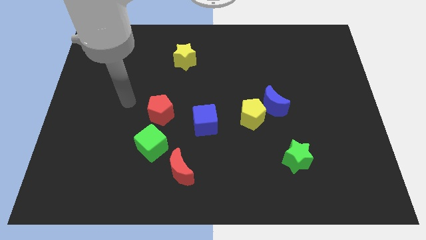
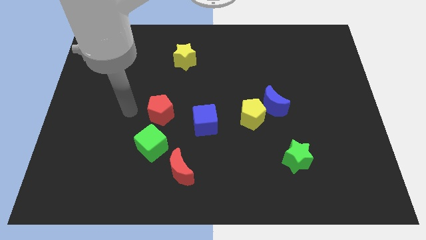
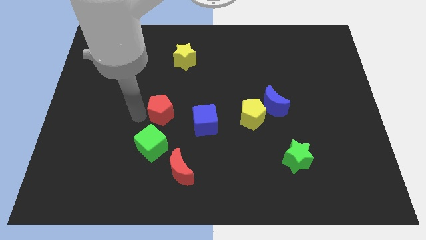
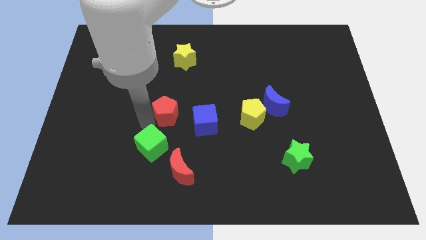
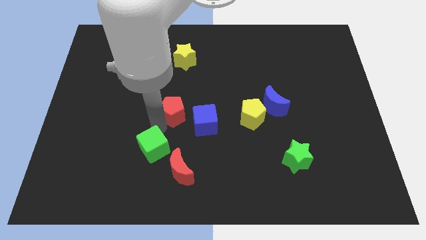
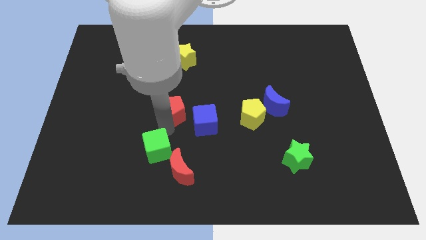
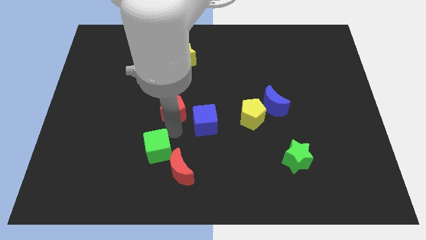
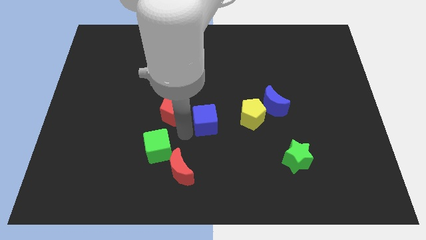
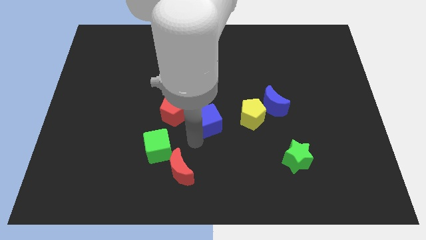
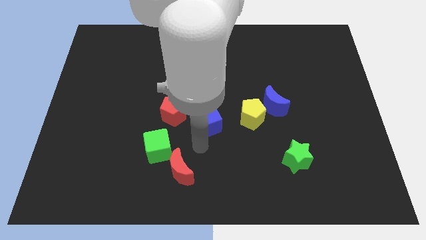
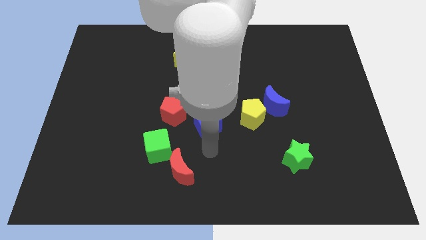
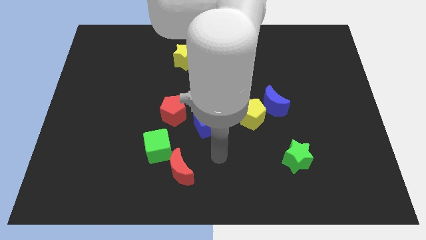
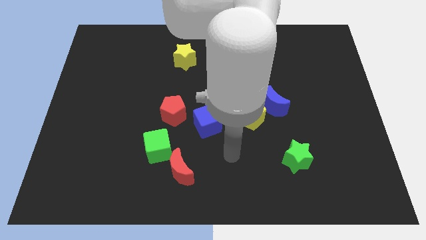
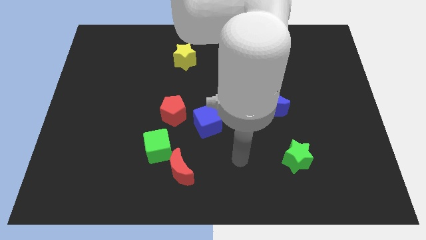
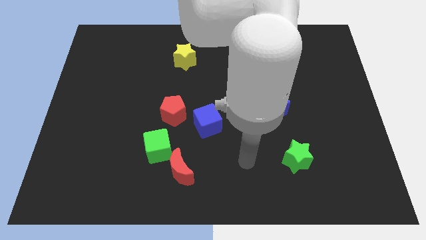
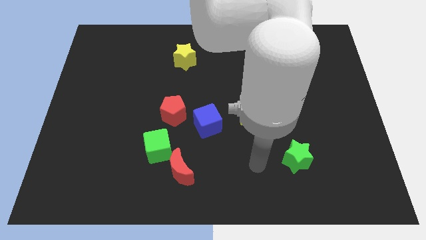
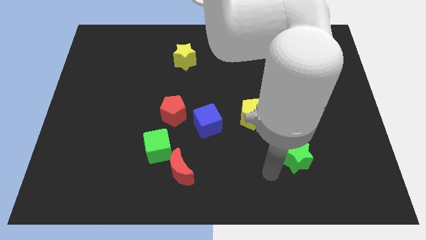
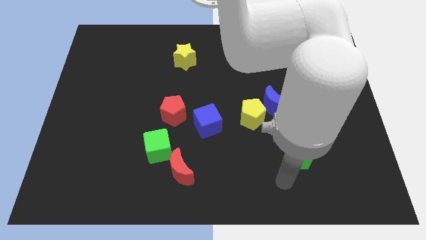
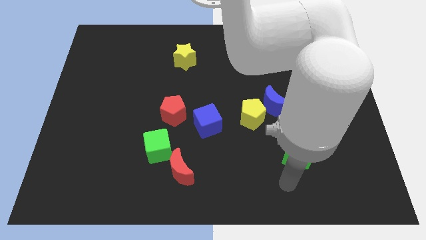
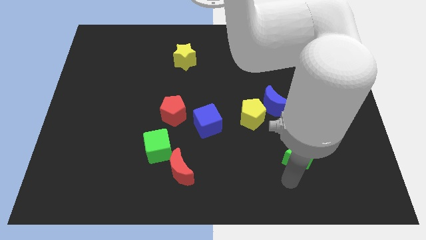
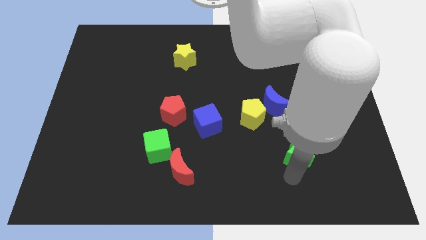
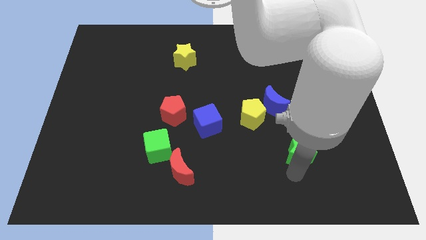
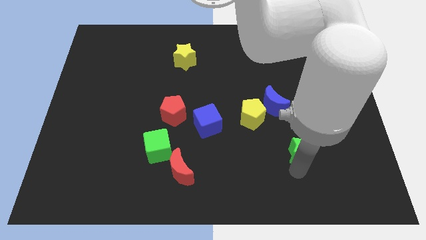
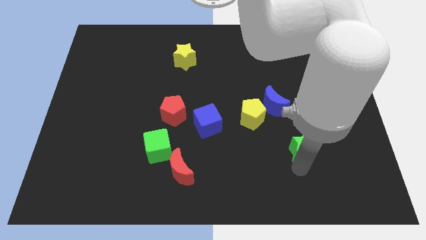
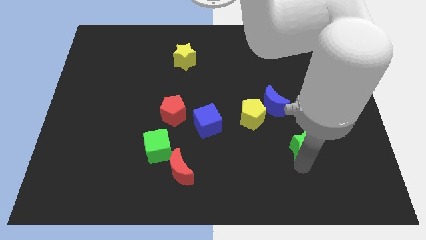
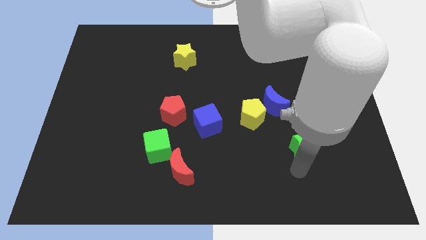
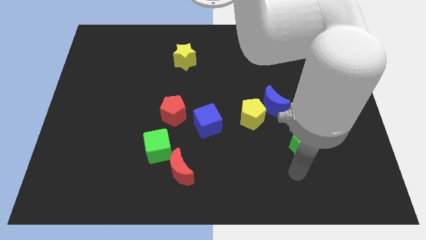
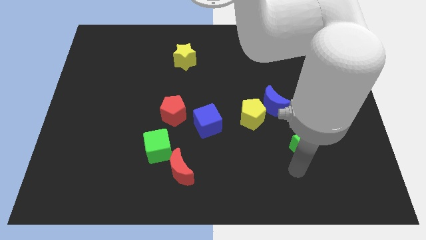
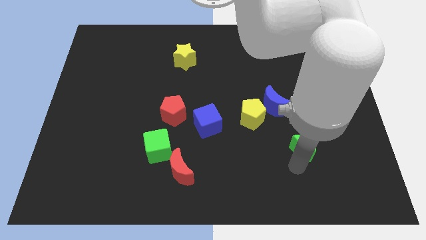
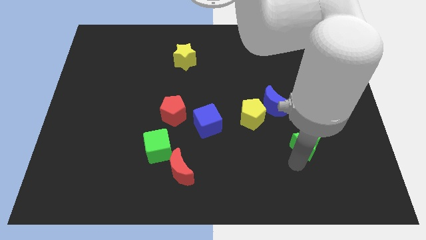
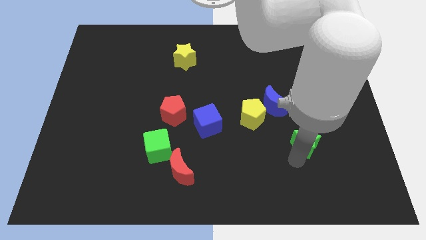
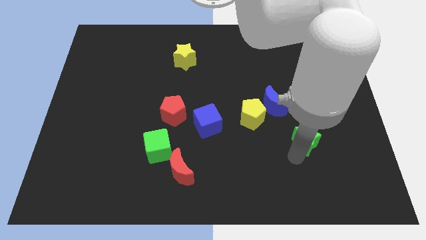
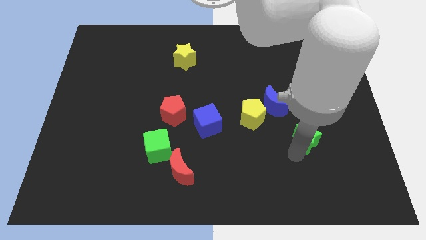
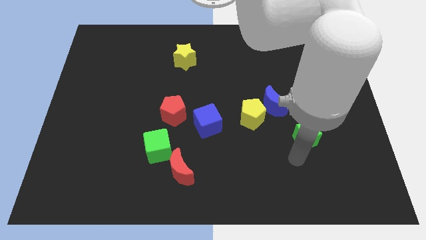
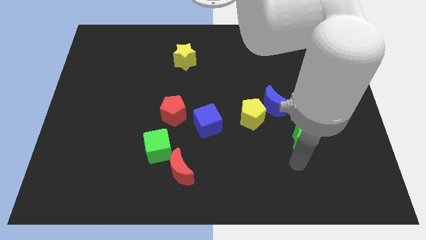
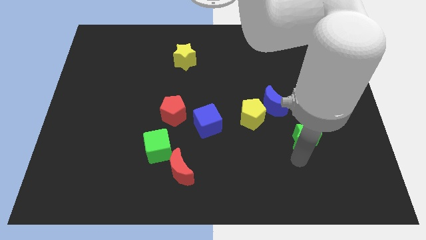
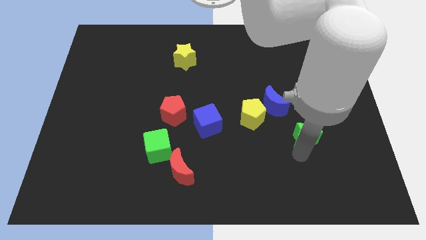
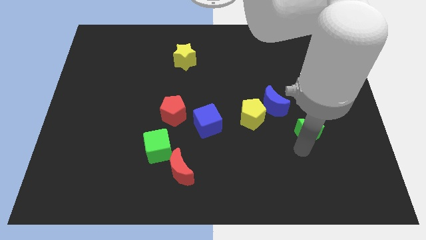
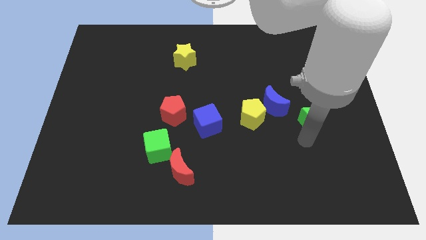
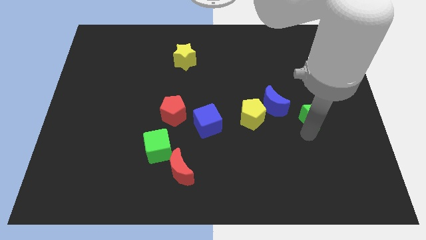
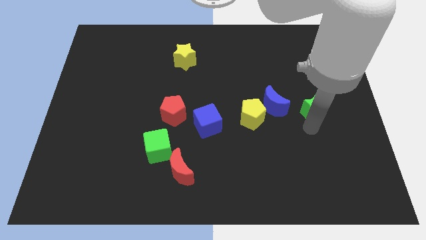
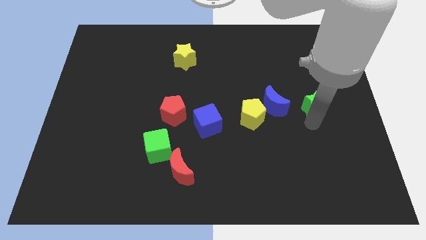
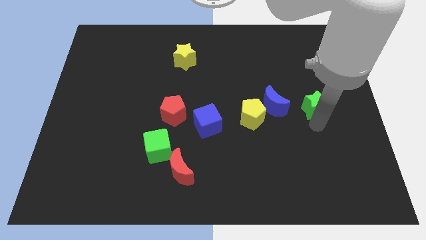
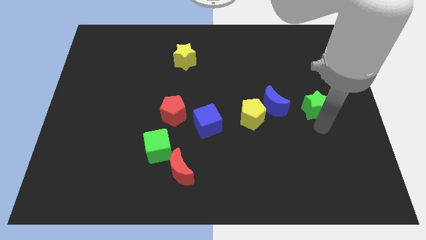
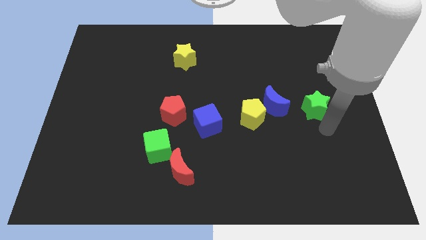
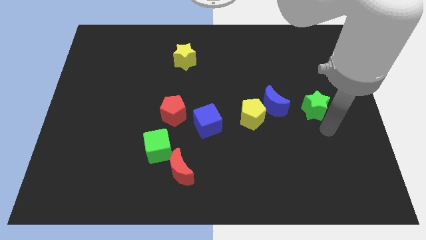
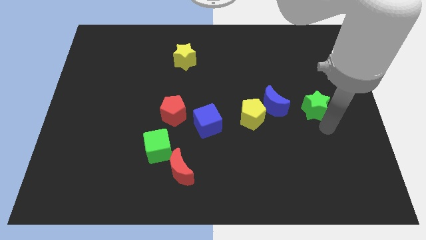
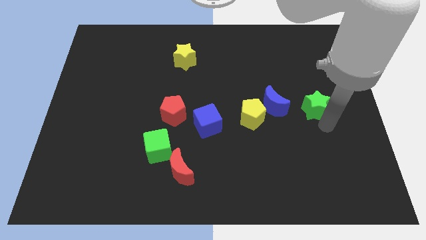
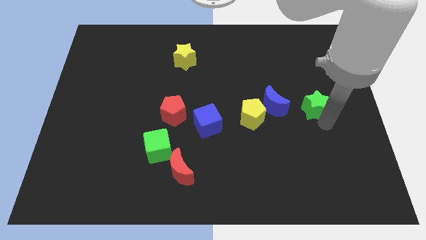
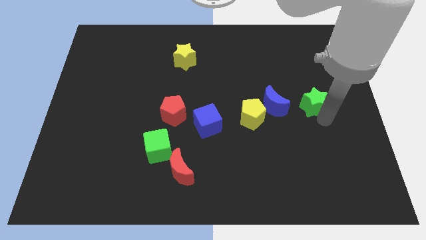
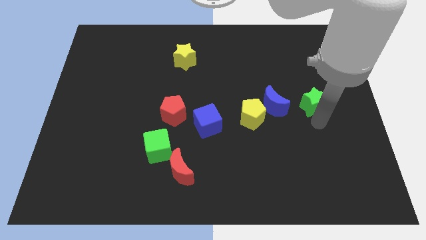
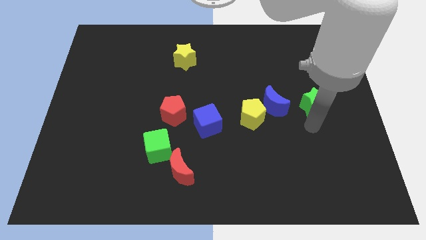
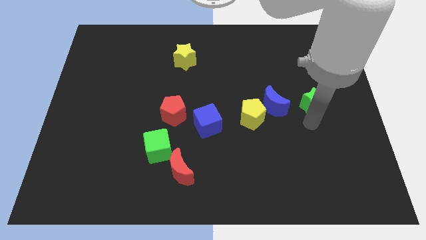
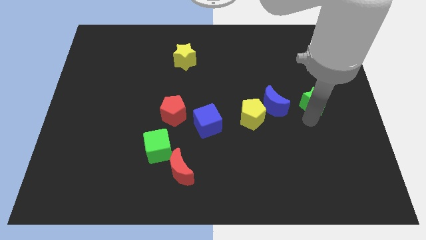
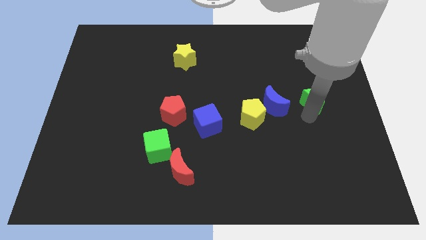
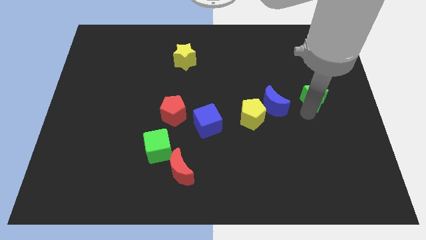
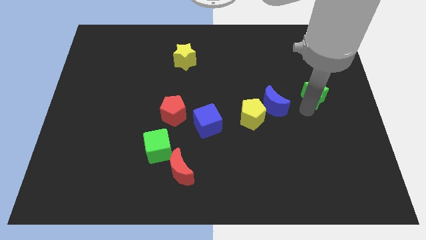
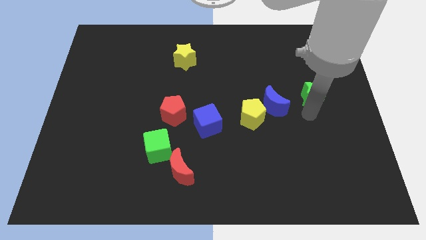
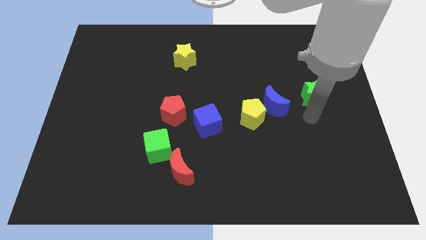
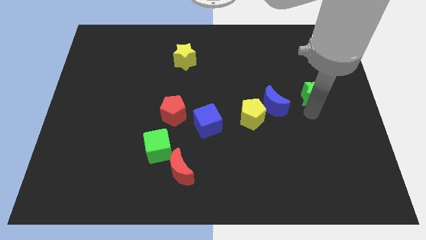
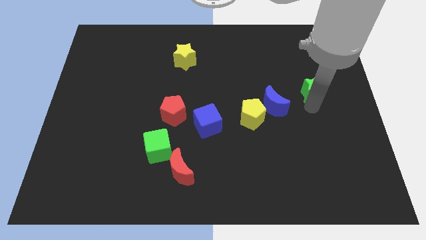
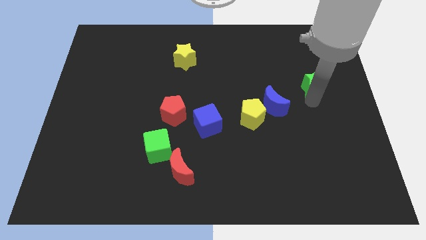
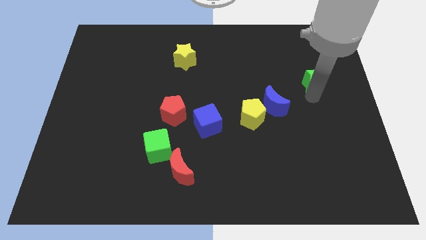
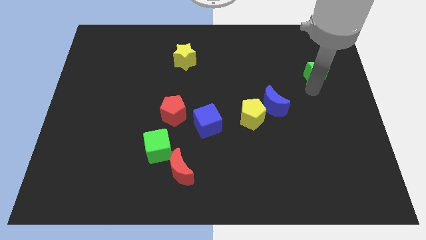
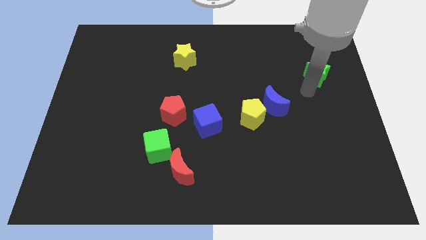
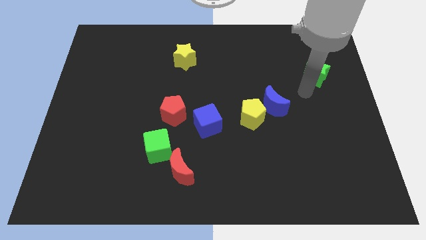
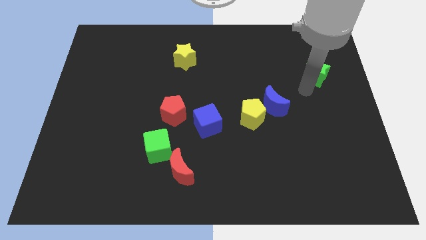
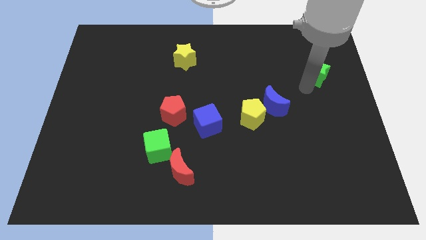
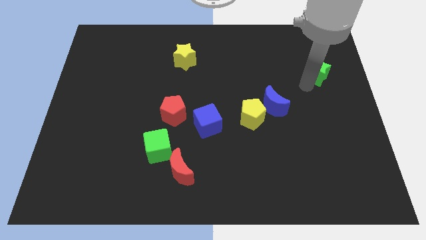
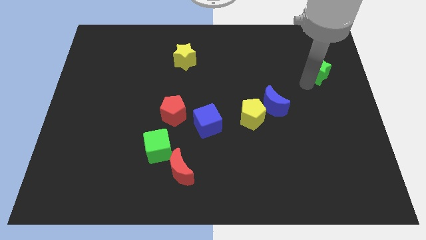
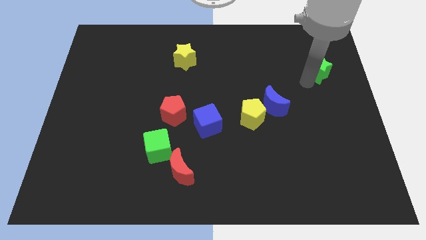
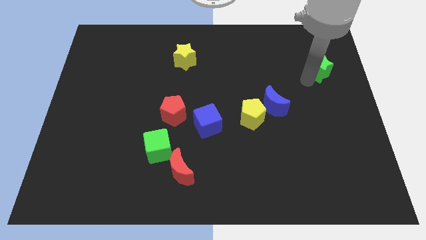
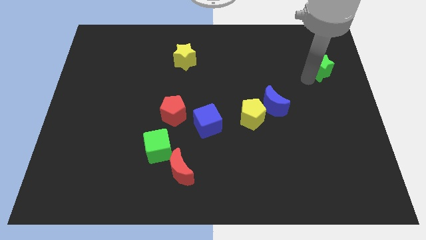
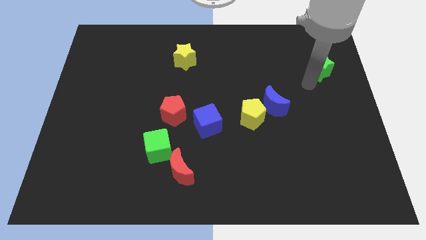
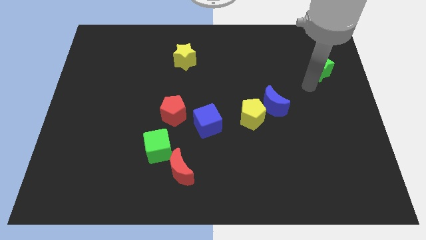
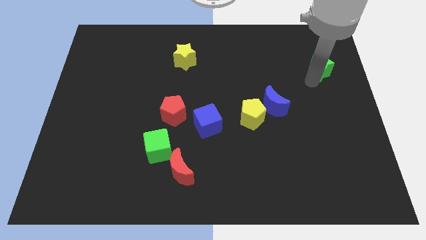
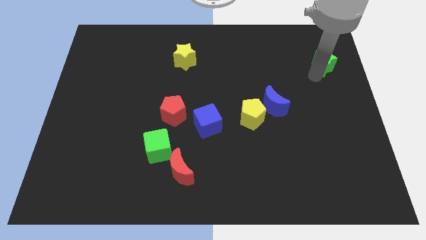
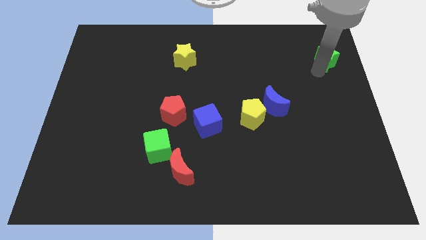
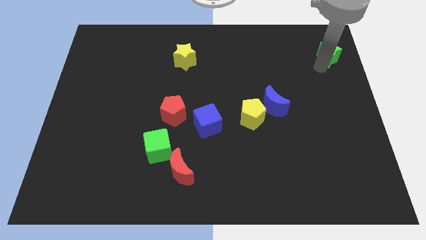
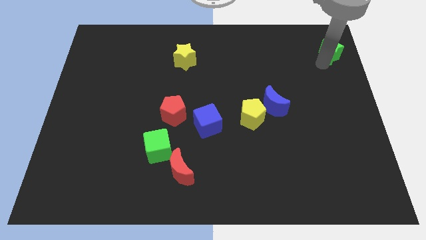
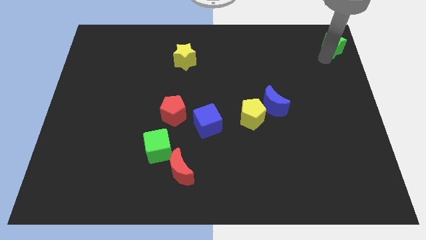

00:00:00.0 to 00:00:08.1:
put the green star to the upper right corner
